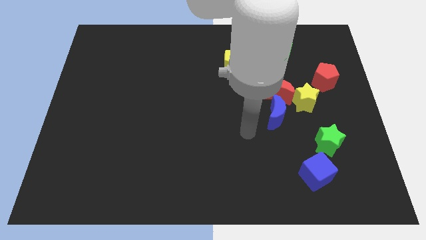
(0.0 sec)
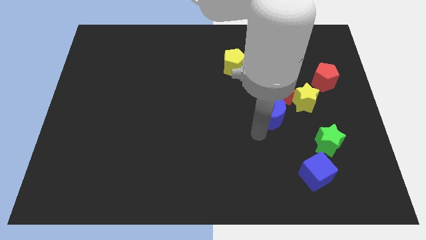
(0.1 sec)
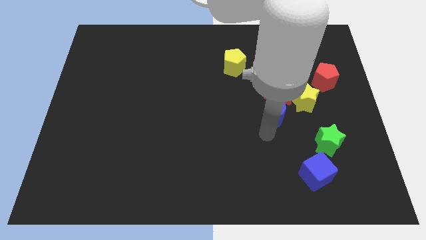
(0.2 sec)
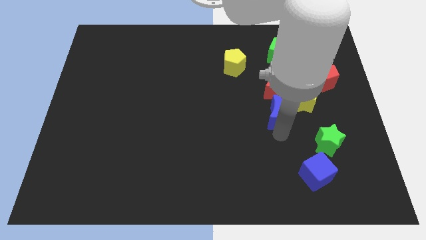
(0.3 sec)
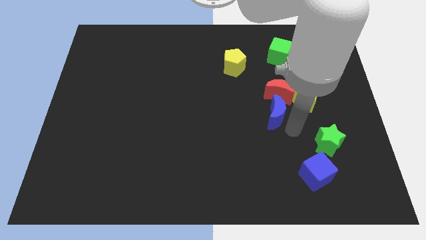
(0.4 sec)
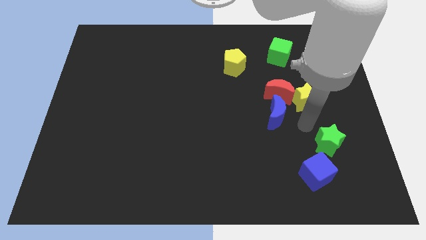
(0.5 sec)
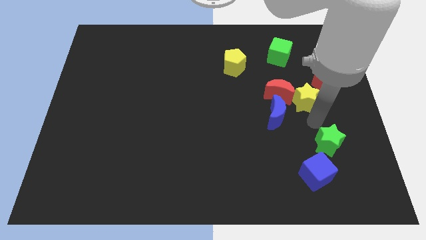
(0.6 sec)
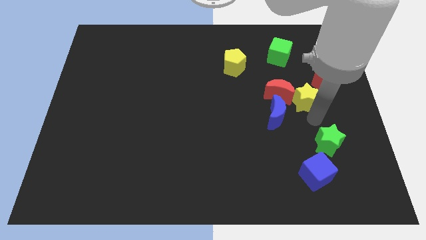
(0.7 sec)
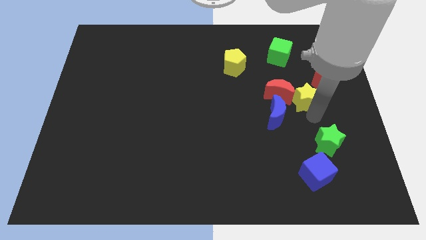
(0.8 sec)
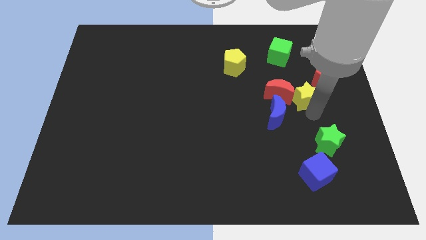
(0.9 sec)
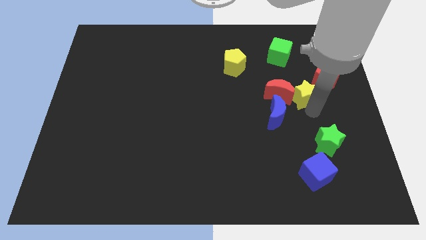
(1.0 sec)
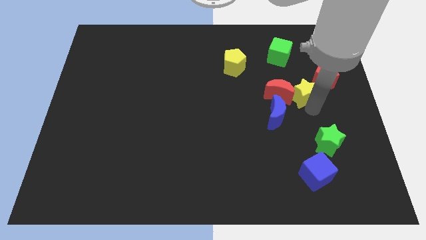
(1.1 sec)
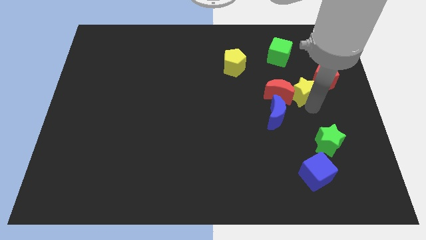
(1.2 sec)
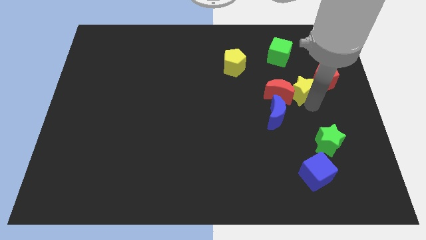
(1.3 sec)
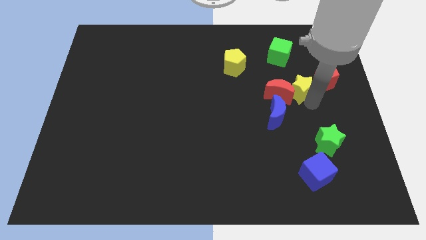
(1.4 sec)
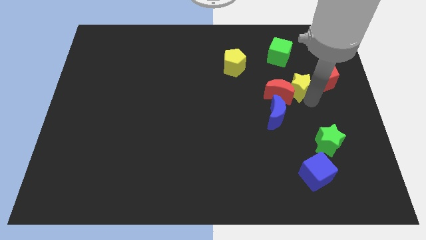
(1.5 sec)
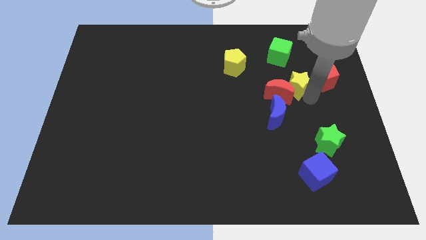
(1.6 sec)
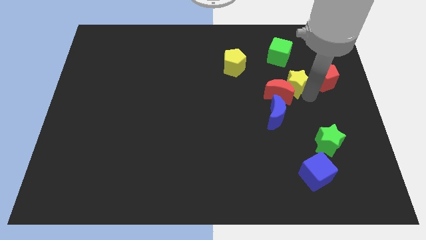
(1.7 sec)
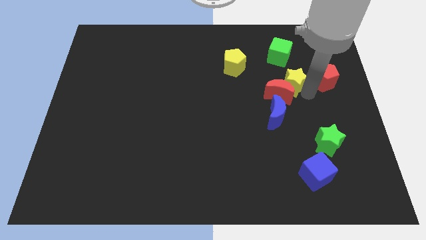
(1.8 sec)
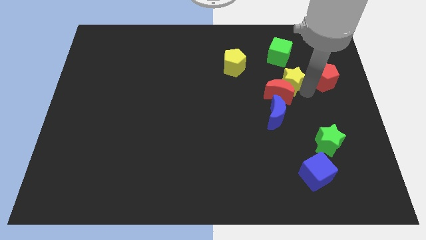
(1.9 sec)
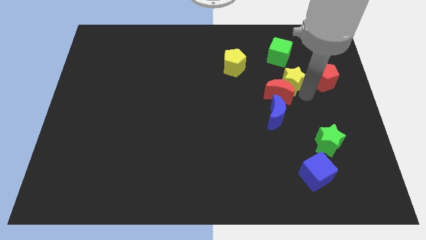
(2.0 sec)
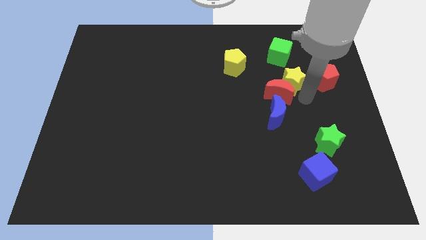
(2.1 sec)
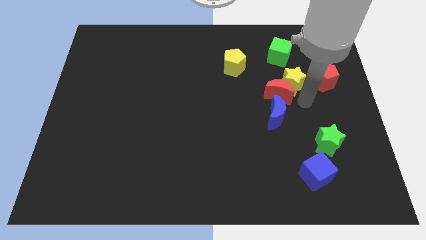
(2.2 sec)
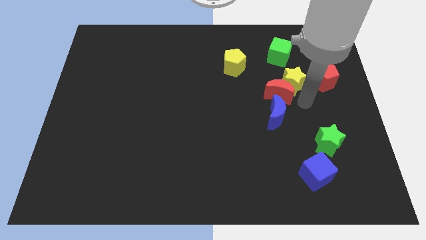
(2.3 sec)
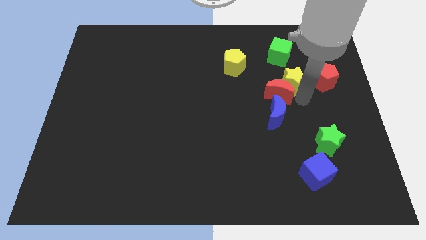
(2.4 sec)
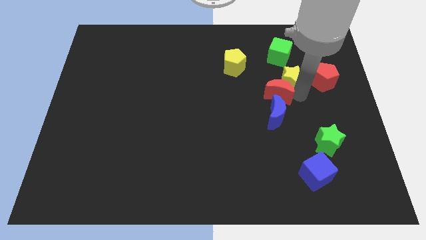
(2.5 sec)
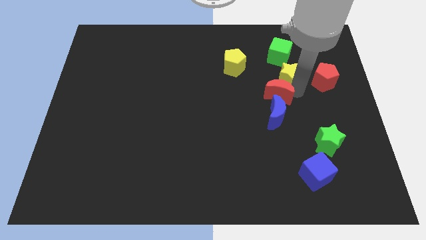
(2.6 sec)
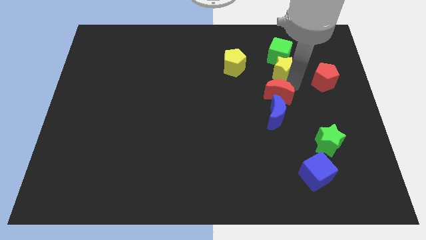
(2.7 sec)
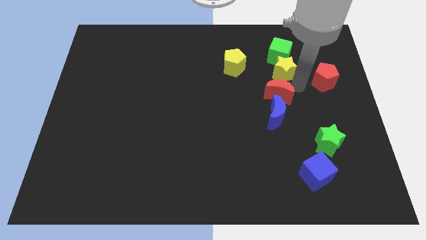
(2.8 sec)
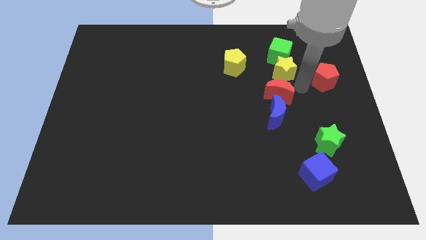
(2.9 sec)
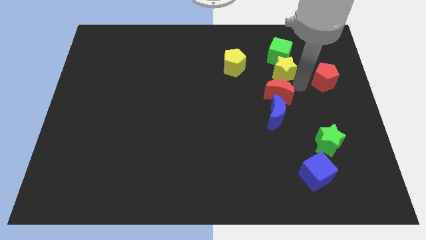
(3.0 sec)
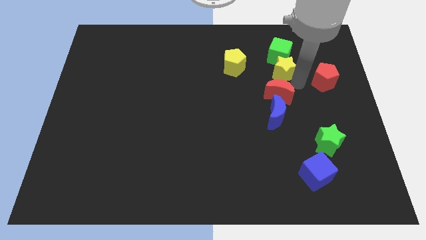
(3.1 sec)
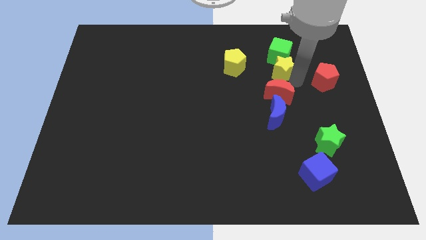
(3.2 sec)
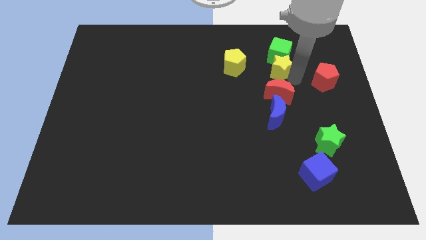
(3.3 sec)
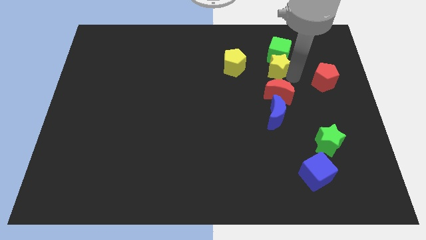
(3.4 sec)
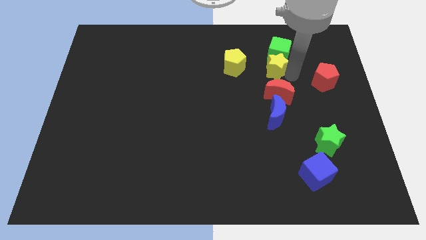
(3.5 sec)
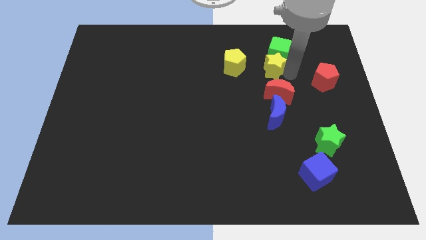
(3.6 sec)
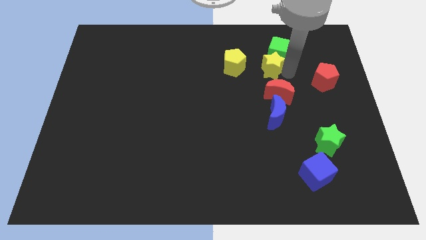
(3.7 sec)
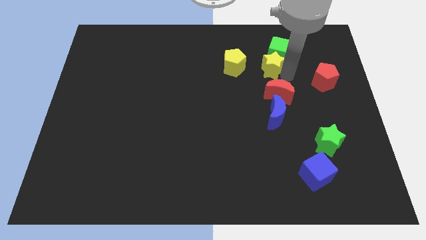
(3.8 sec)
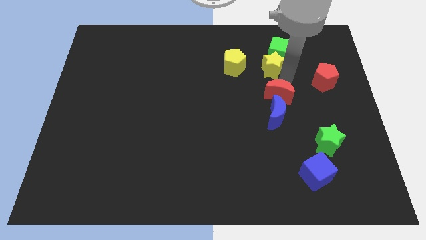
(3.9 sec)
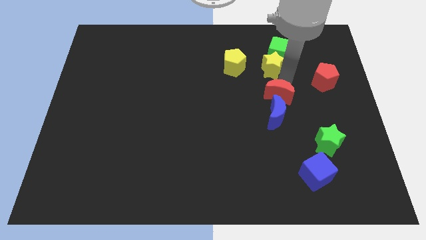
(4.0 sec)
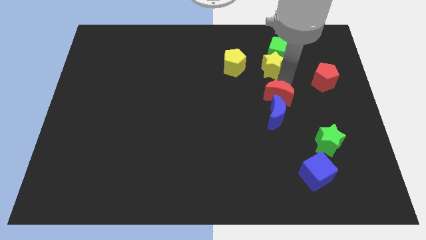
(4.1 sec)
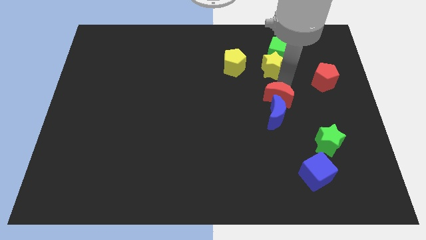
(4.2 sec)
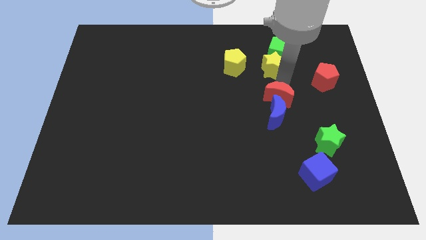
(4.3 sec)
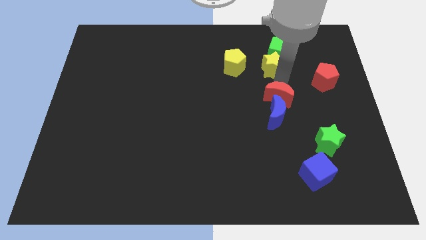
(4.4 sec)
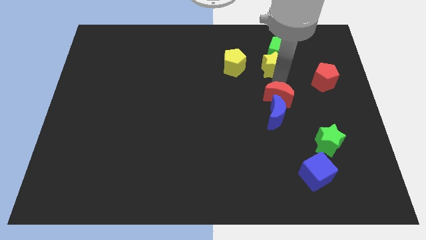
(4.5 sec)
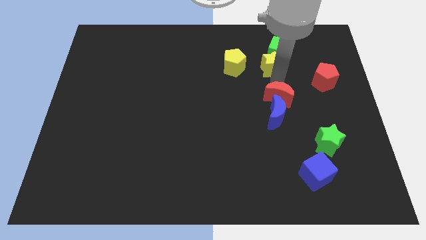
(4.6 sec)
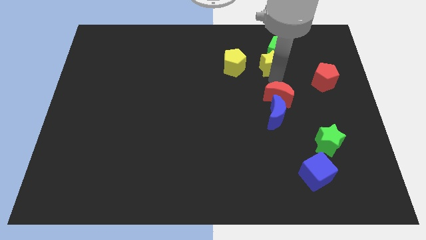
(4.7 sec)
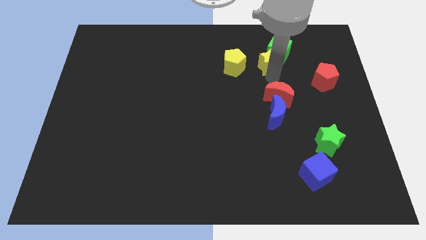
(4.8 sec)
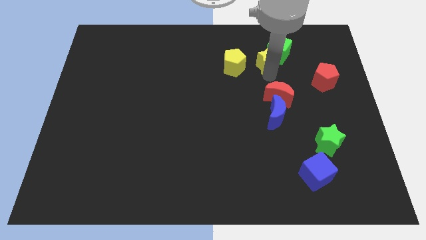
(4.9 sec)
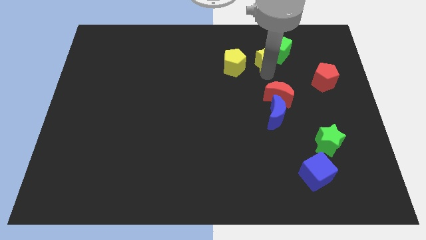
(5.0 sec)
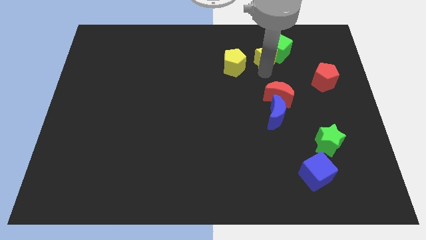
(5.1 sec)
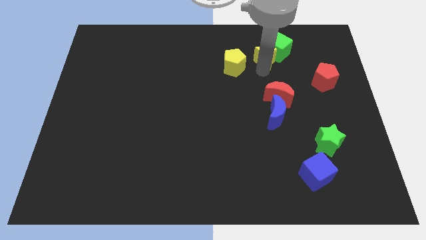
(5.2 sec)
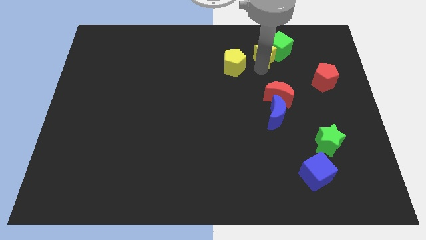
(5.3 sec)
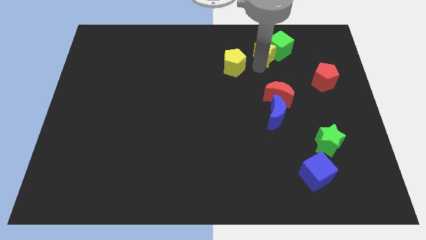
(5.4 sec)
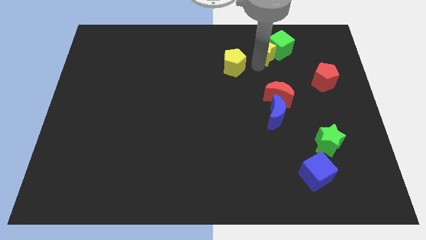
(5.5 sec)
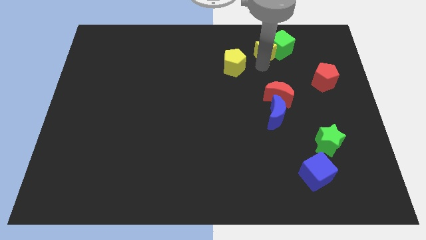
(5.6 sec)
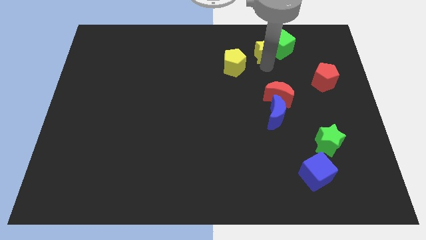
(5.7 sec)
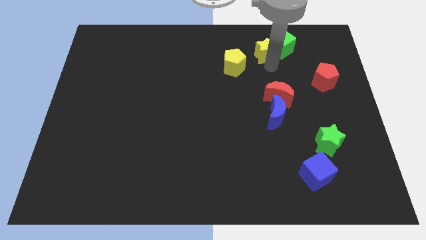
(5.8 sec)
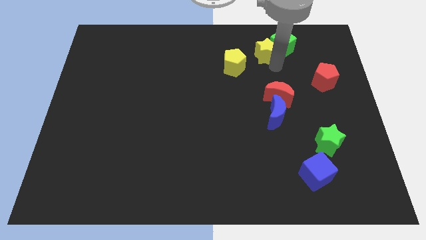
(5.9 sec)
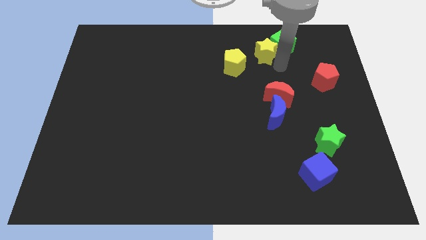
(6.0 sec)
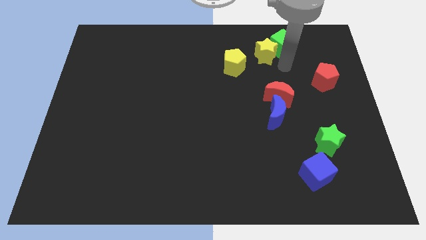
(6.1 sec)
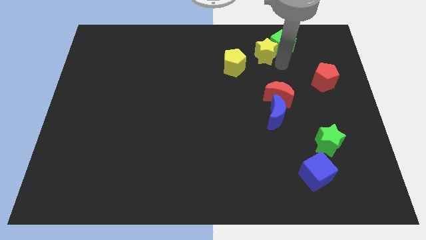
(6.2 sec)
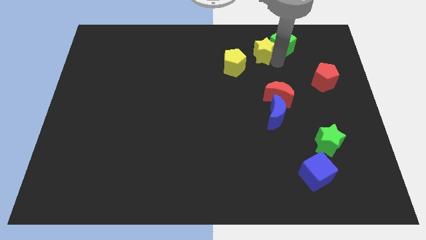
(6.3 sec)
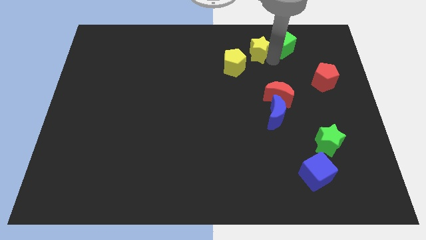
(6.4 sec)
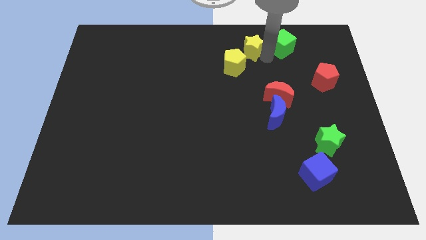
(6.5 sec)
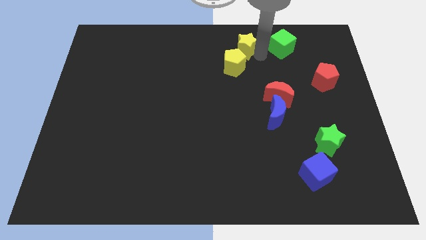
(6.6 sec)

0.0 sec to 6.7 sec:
slide the yellow star to the towards your base

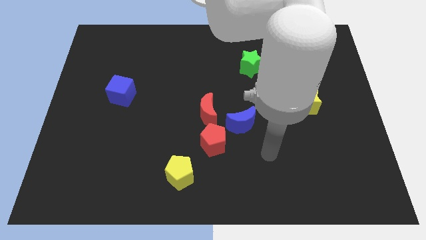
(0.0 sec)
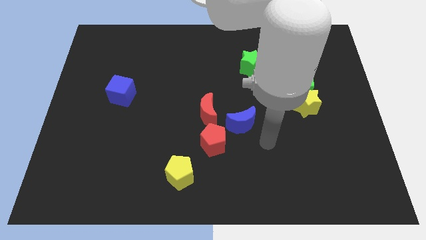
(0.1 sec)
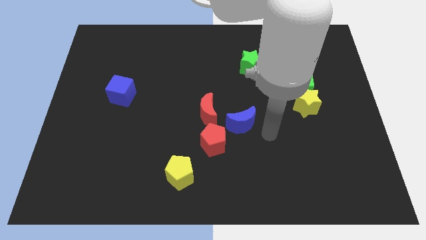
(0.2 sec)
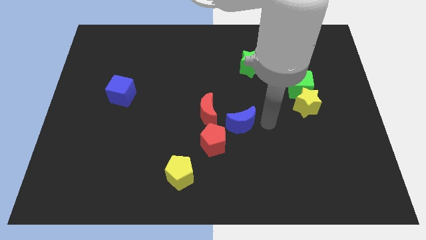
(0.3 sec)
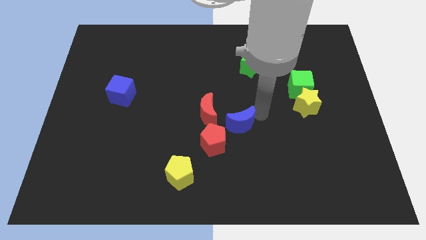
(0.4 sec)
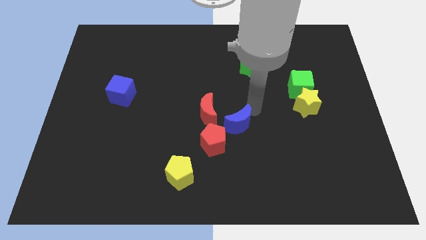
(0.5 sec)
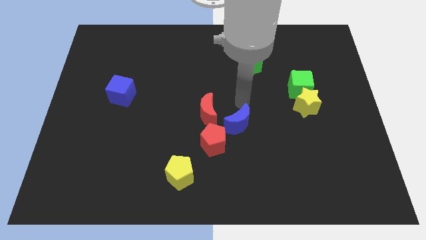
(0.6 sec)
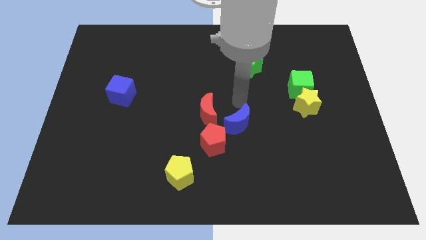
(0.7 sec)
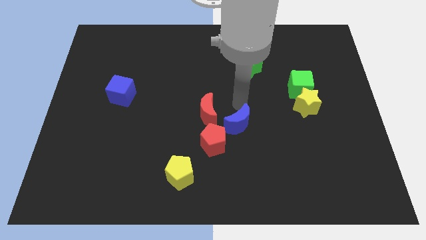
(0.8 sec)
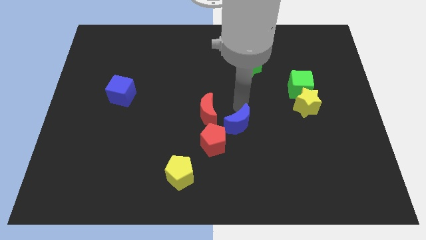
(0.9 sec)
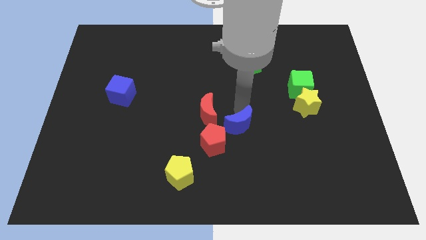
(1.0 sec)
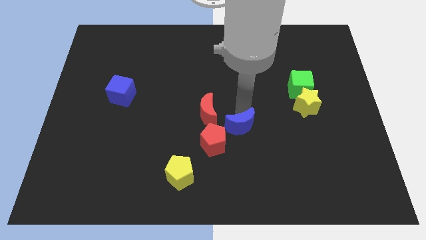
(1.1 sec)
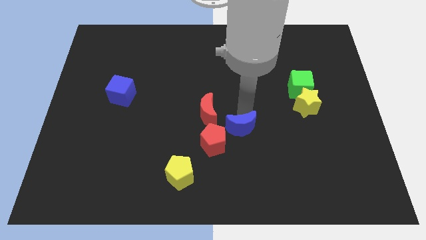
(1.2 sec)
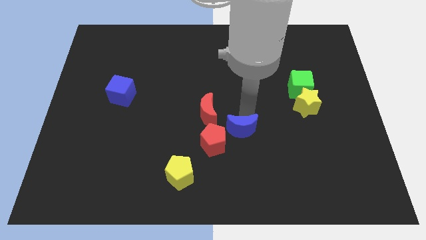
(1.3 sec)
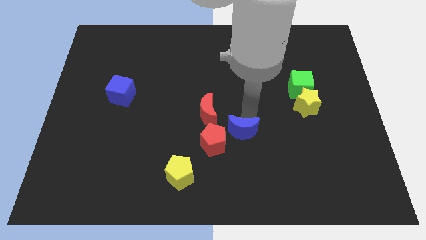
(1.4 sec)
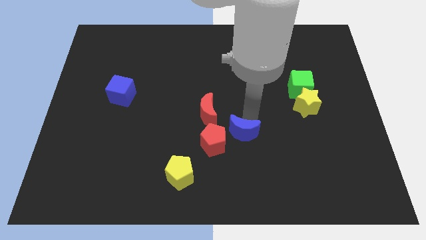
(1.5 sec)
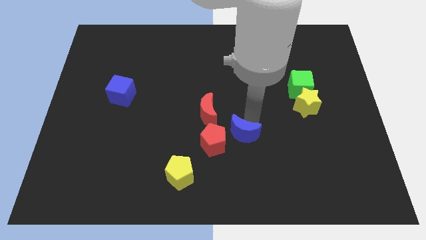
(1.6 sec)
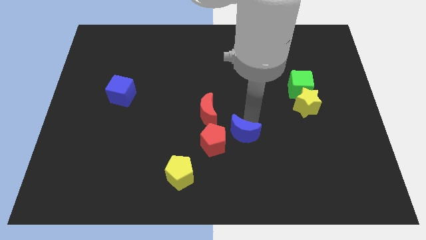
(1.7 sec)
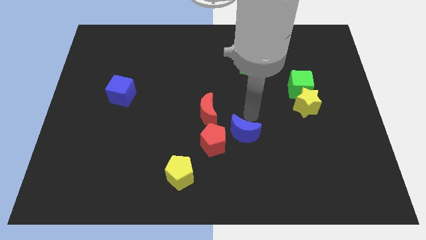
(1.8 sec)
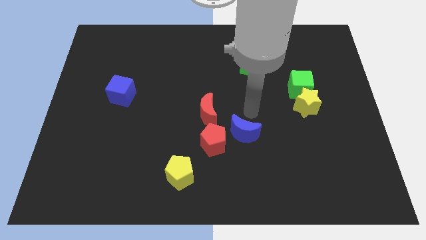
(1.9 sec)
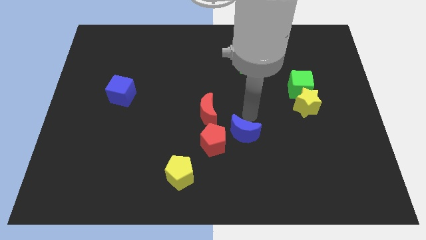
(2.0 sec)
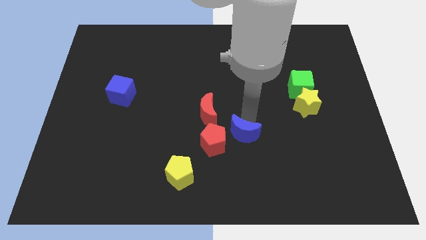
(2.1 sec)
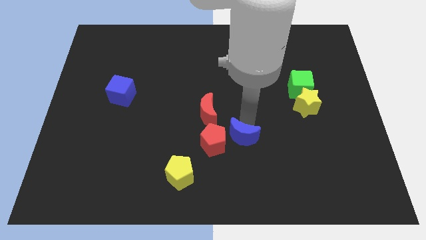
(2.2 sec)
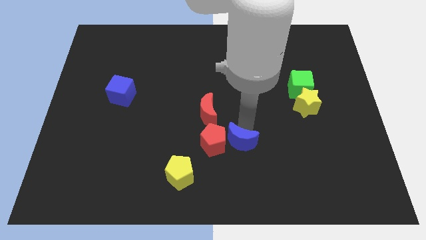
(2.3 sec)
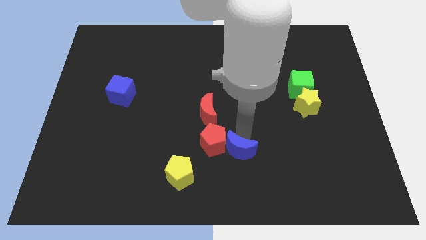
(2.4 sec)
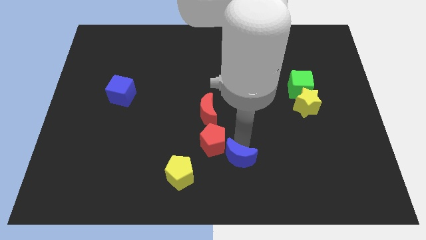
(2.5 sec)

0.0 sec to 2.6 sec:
push the blue moon to the bottom
